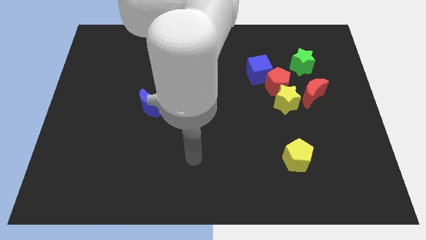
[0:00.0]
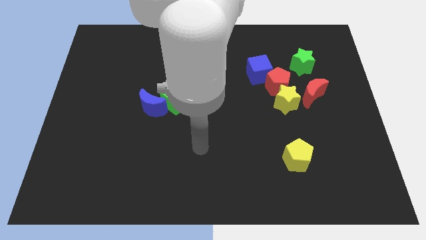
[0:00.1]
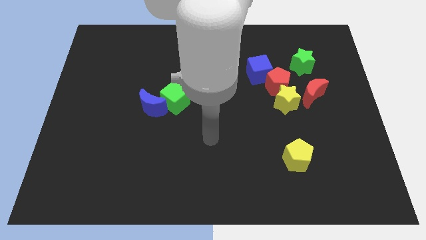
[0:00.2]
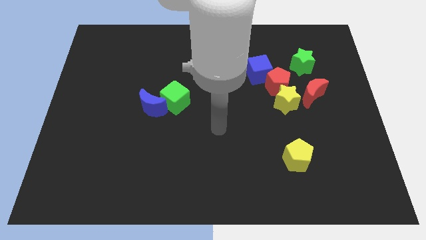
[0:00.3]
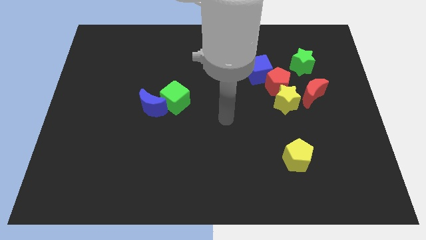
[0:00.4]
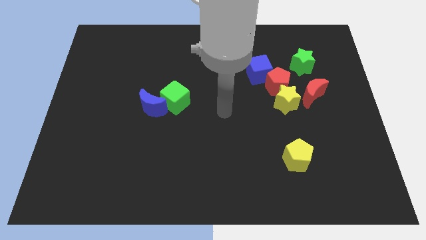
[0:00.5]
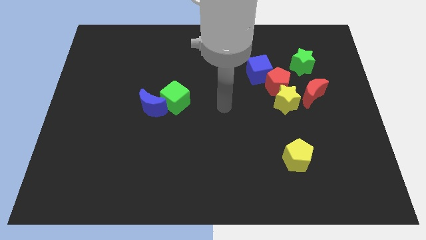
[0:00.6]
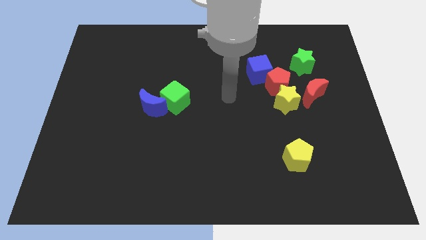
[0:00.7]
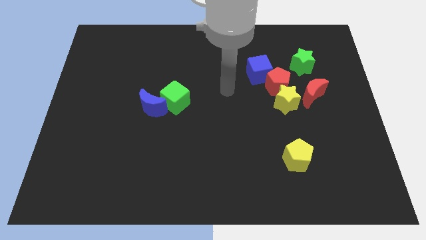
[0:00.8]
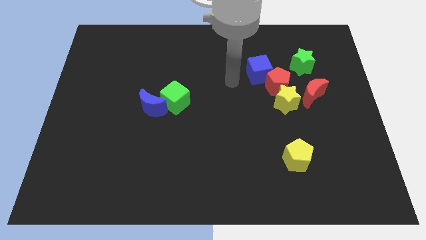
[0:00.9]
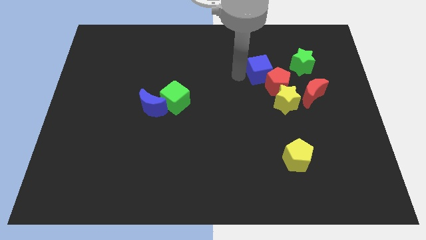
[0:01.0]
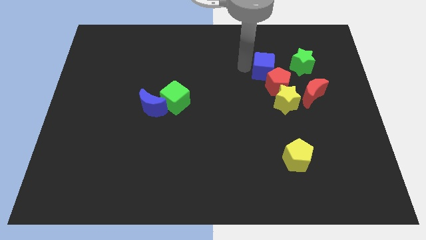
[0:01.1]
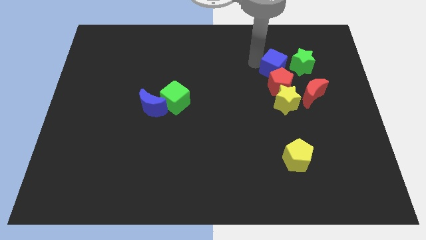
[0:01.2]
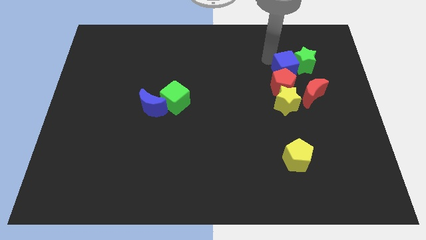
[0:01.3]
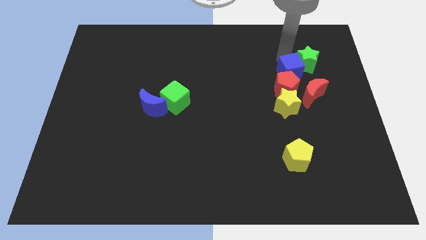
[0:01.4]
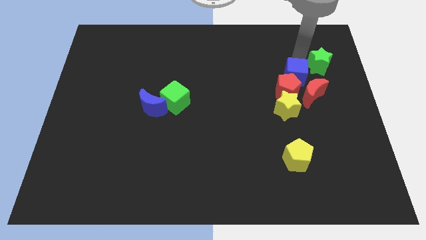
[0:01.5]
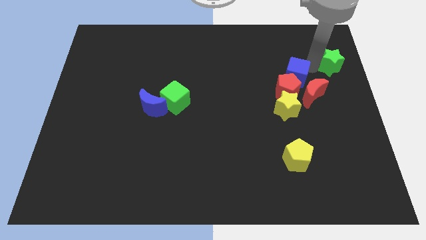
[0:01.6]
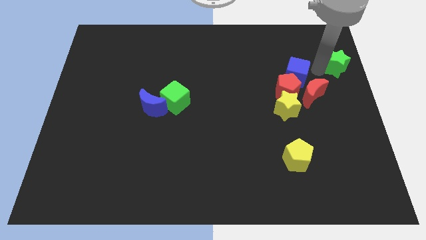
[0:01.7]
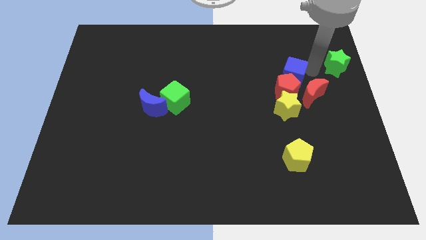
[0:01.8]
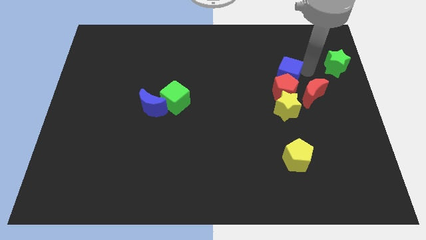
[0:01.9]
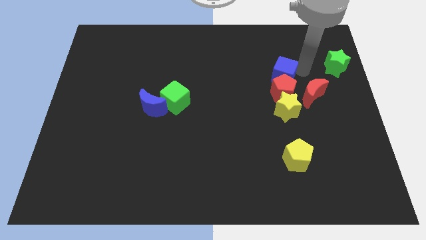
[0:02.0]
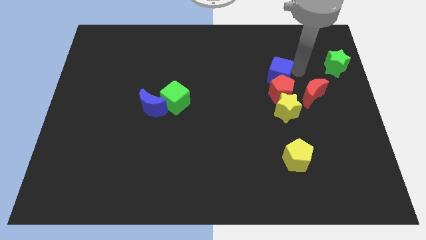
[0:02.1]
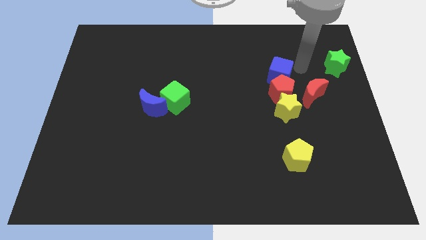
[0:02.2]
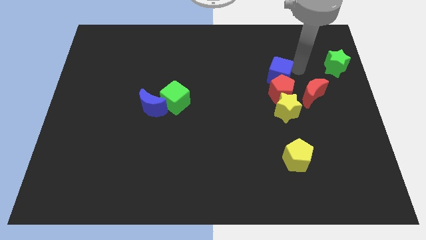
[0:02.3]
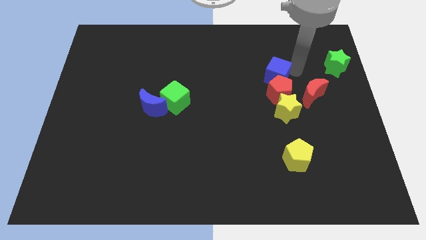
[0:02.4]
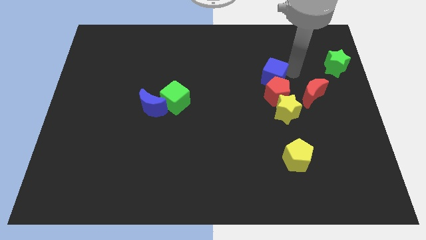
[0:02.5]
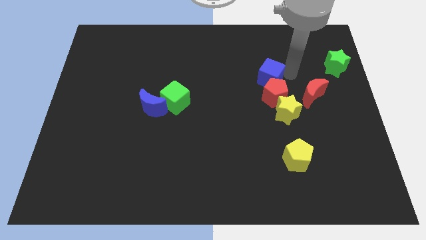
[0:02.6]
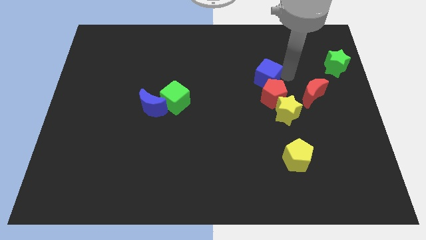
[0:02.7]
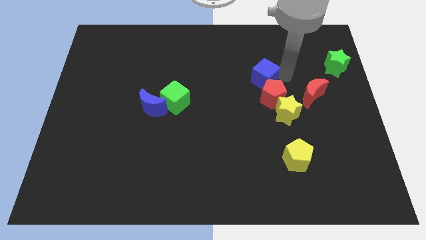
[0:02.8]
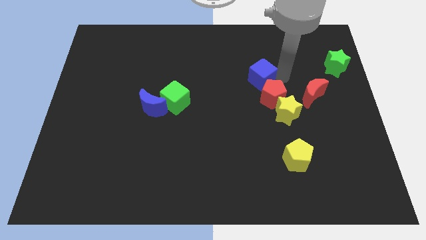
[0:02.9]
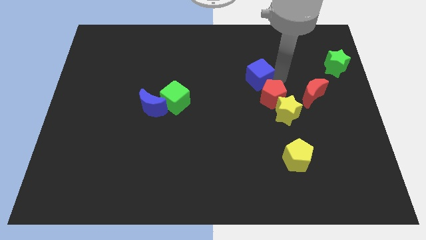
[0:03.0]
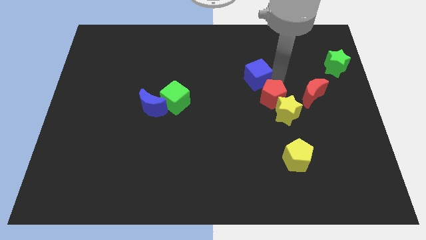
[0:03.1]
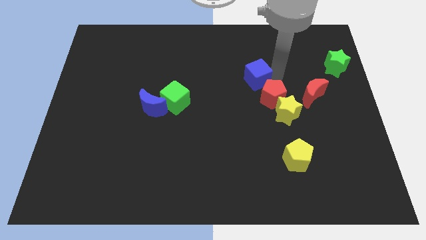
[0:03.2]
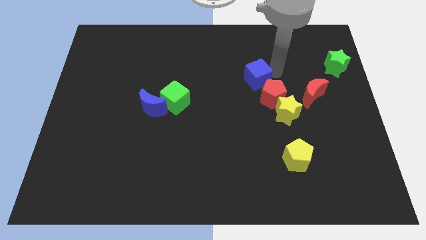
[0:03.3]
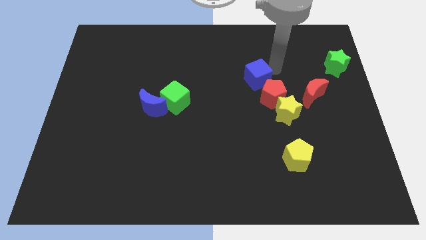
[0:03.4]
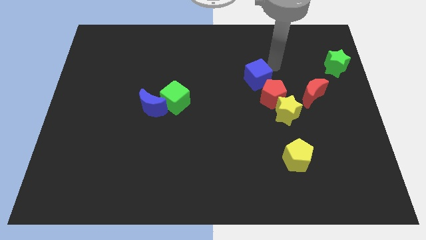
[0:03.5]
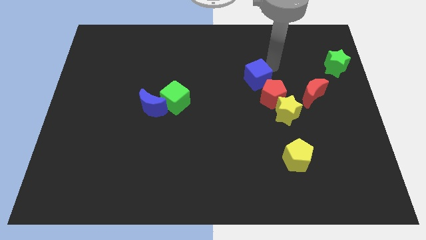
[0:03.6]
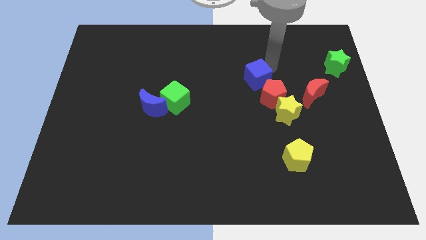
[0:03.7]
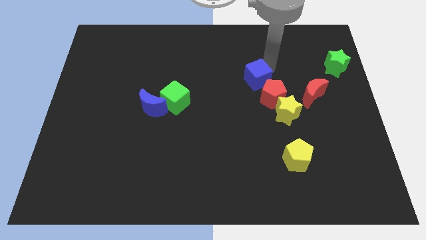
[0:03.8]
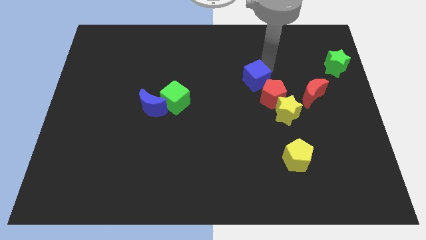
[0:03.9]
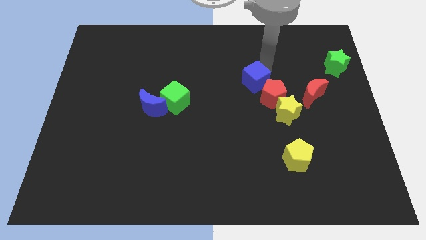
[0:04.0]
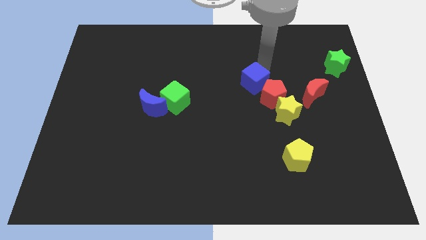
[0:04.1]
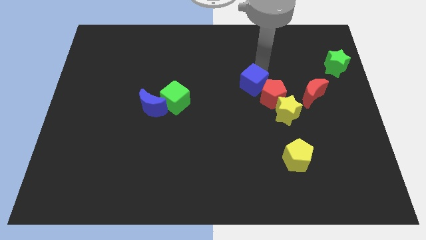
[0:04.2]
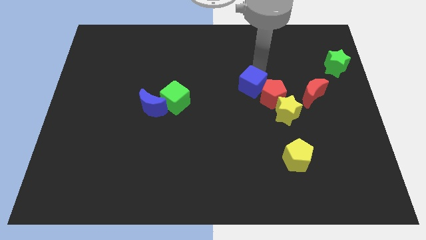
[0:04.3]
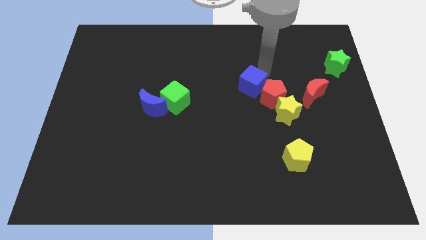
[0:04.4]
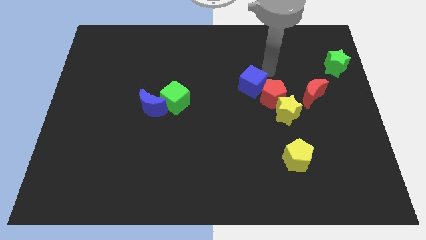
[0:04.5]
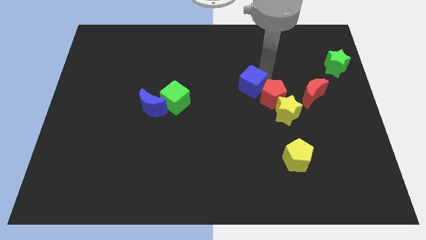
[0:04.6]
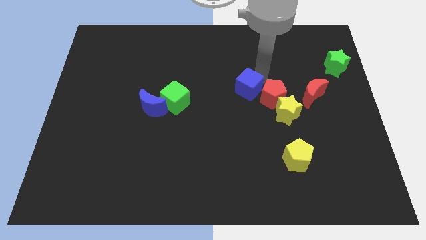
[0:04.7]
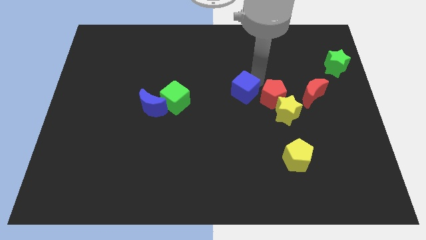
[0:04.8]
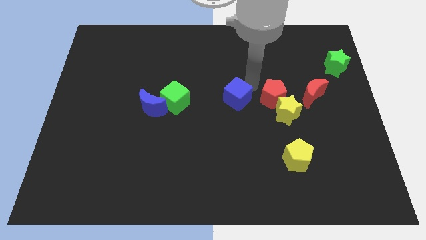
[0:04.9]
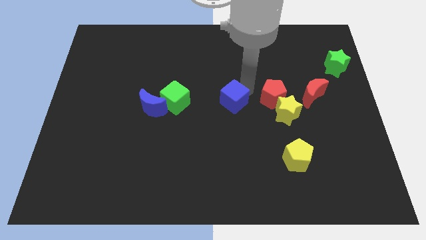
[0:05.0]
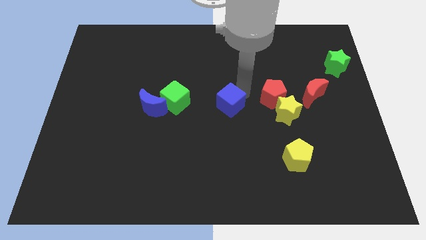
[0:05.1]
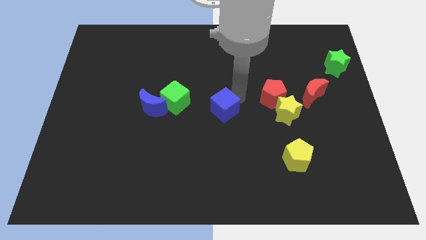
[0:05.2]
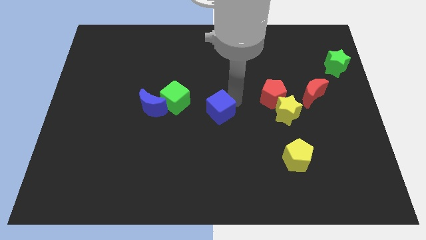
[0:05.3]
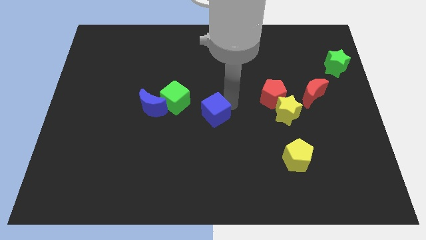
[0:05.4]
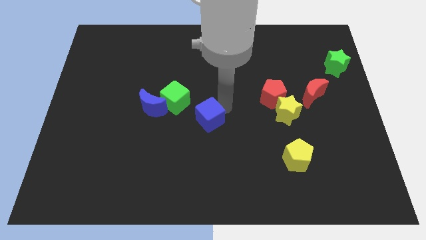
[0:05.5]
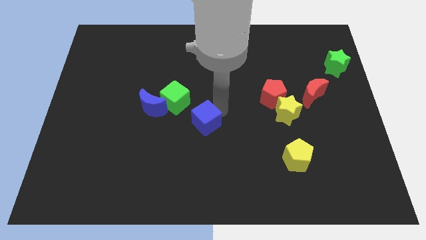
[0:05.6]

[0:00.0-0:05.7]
push the blue cube diagonally downwards and left

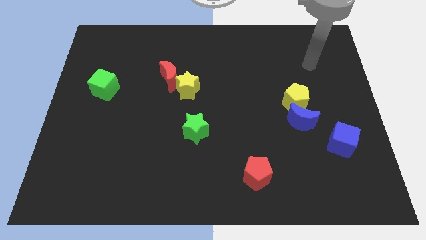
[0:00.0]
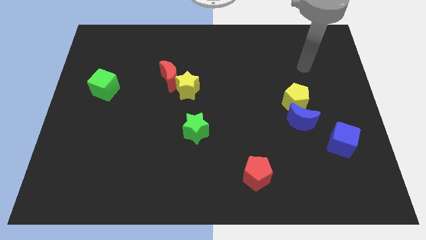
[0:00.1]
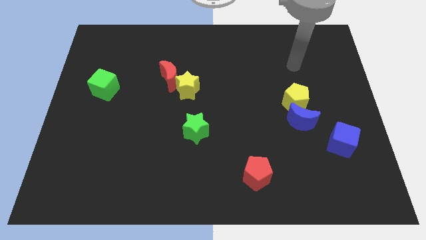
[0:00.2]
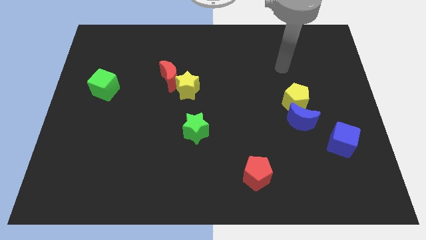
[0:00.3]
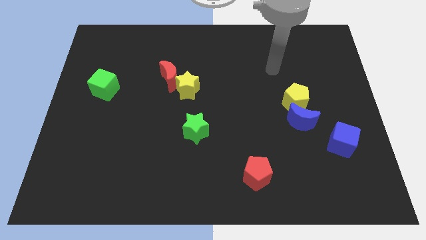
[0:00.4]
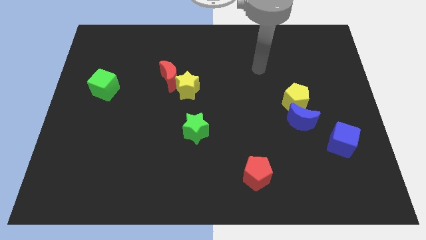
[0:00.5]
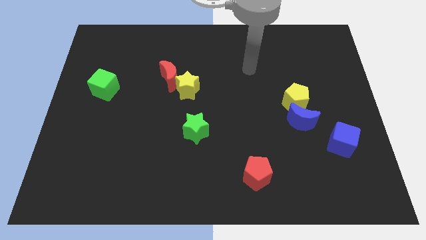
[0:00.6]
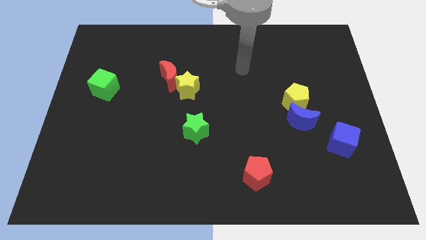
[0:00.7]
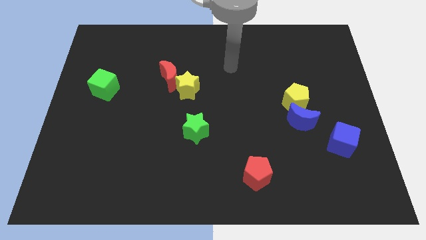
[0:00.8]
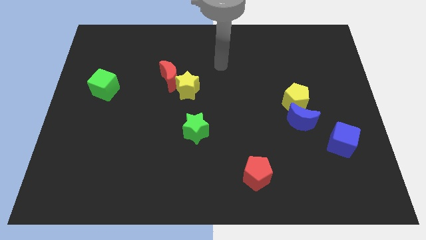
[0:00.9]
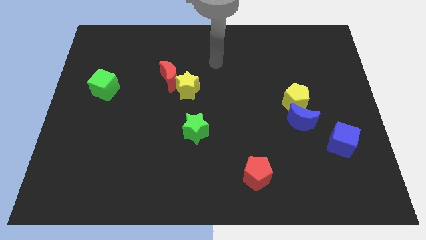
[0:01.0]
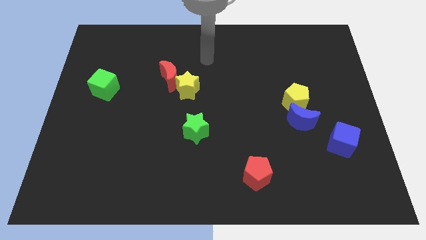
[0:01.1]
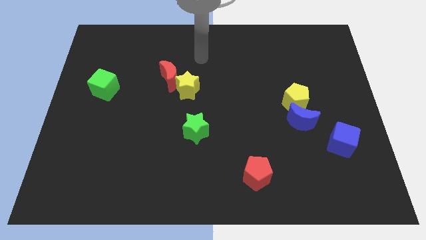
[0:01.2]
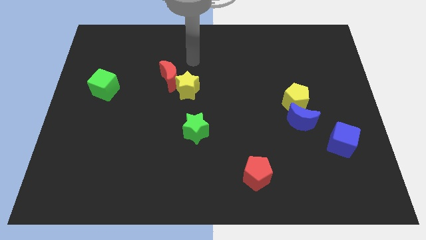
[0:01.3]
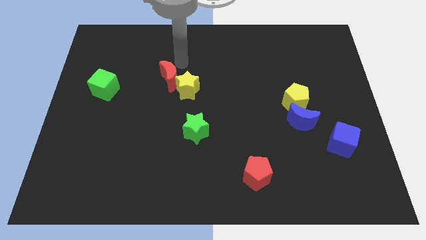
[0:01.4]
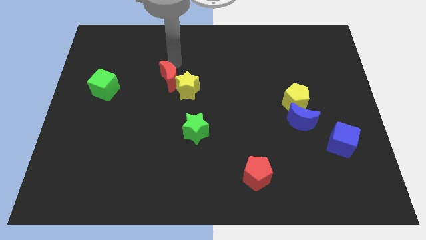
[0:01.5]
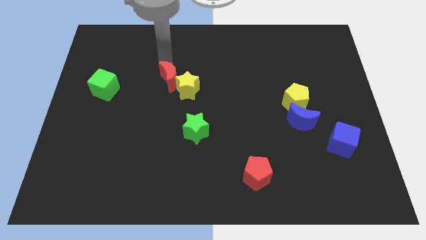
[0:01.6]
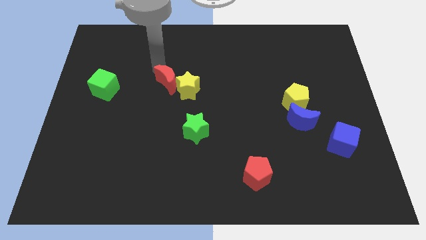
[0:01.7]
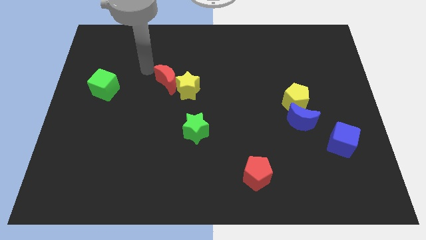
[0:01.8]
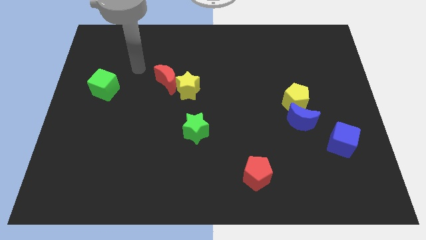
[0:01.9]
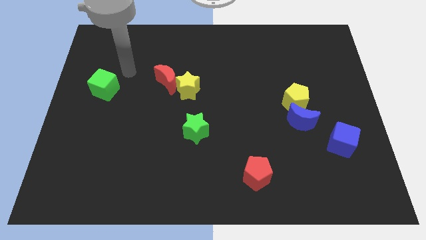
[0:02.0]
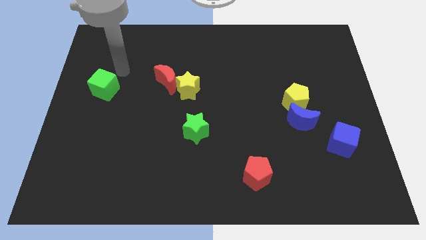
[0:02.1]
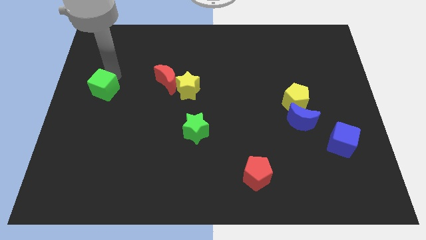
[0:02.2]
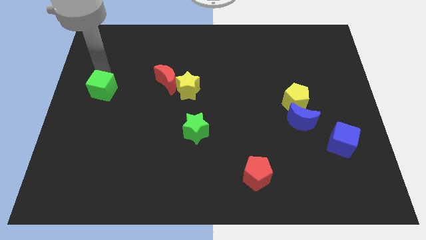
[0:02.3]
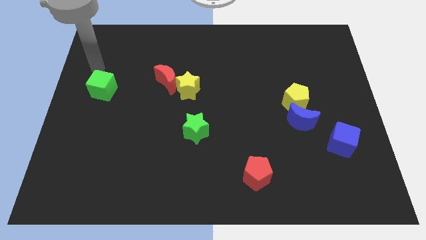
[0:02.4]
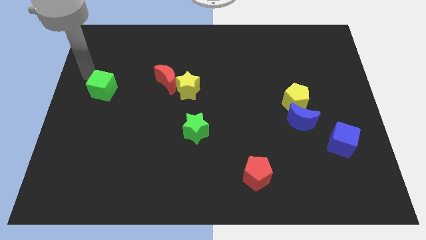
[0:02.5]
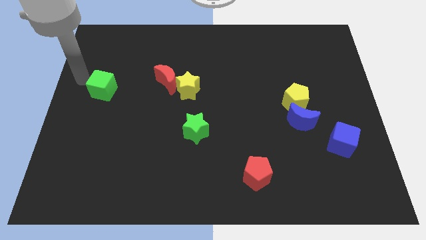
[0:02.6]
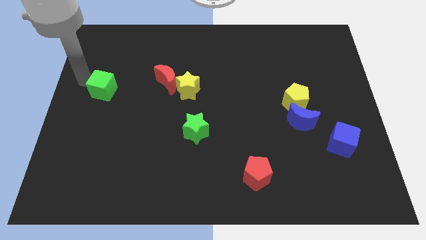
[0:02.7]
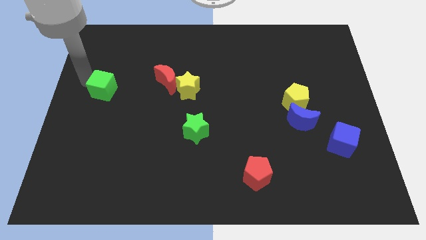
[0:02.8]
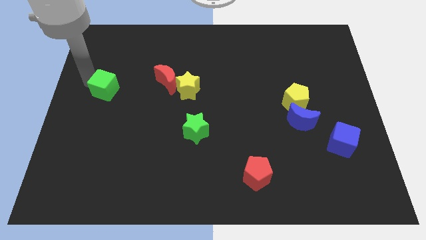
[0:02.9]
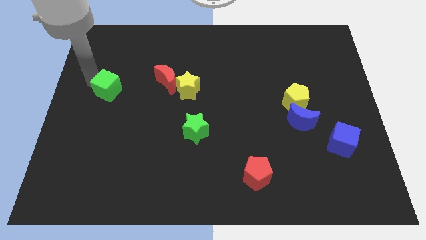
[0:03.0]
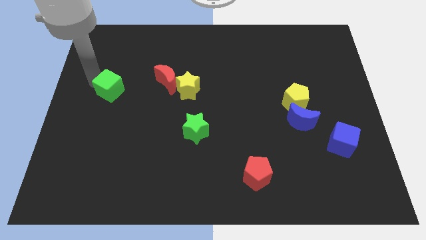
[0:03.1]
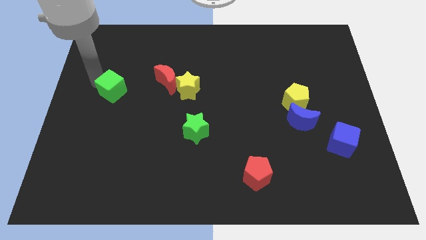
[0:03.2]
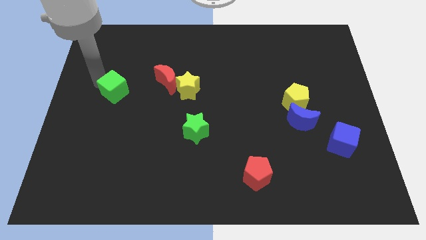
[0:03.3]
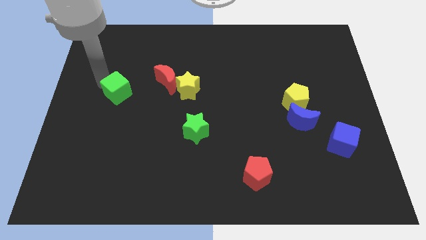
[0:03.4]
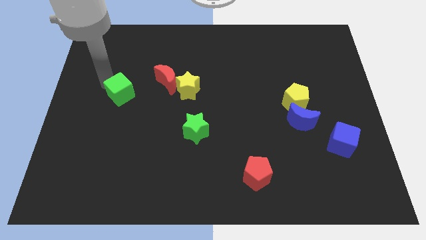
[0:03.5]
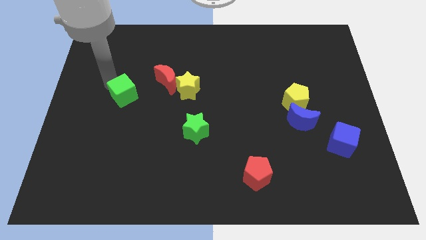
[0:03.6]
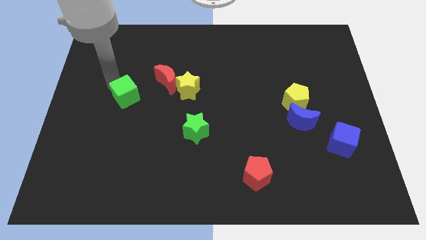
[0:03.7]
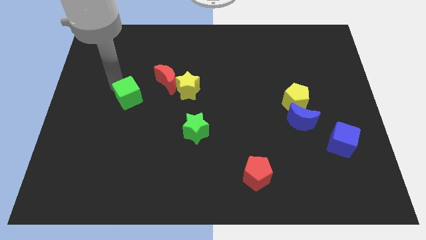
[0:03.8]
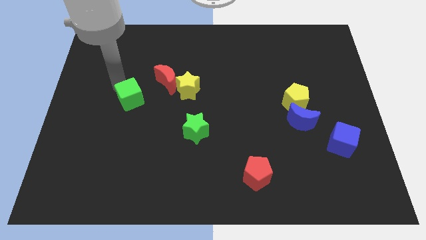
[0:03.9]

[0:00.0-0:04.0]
slide the green cube somewhat downwards and right
